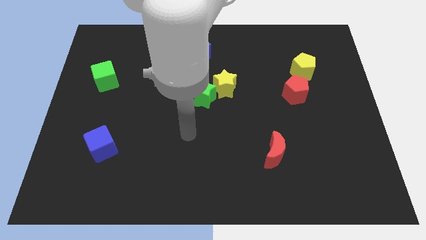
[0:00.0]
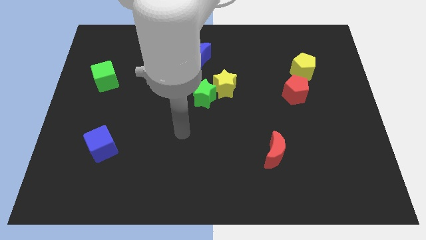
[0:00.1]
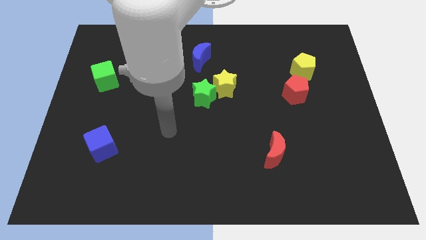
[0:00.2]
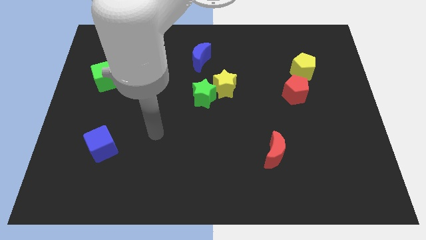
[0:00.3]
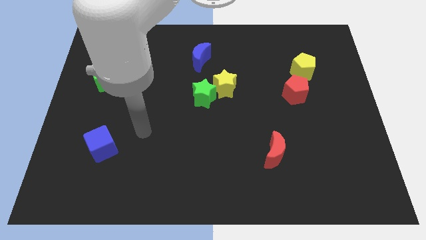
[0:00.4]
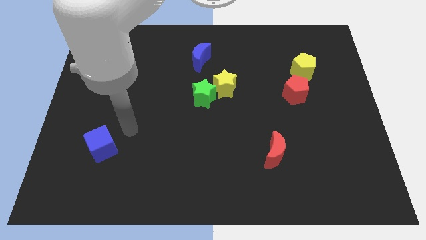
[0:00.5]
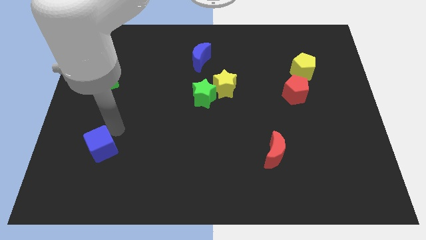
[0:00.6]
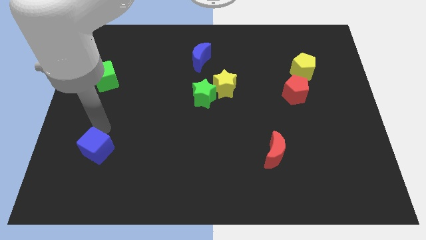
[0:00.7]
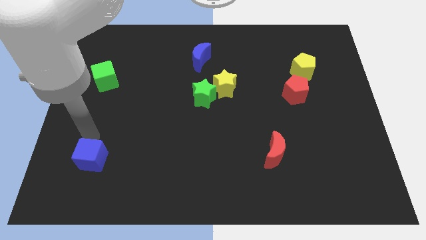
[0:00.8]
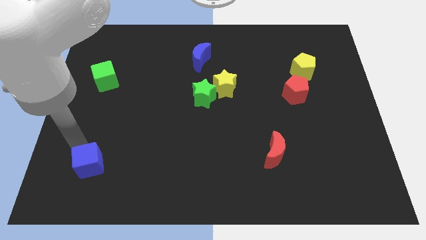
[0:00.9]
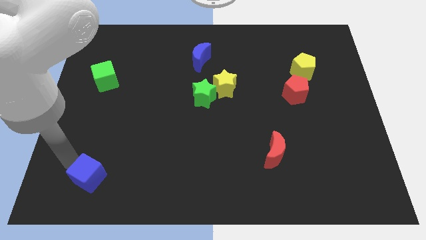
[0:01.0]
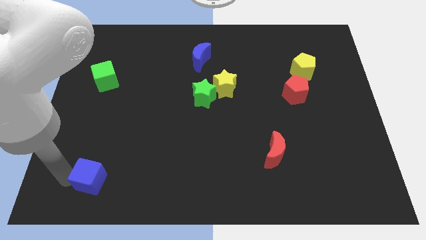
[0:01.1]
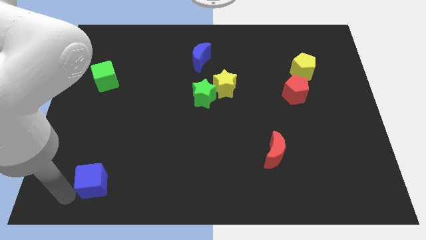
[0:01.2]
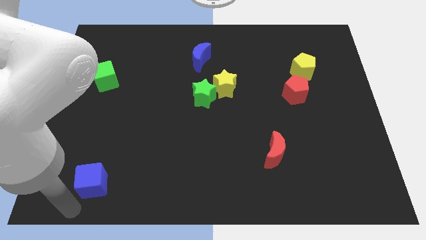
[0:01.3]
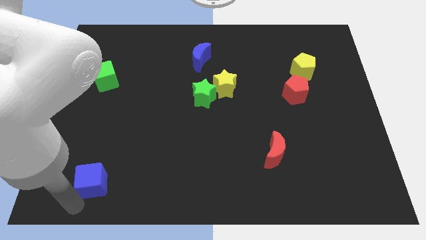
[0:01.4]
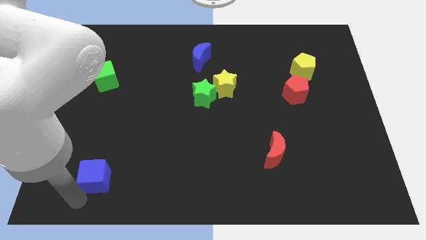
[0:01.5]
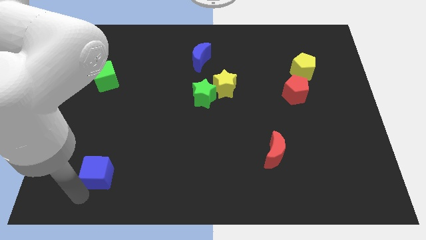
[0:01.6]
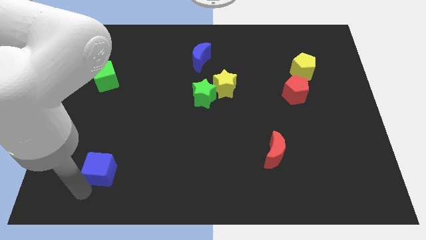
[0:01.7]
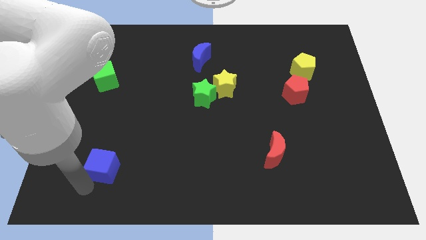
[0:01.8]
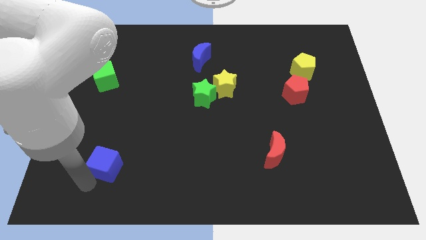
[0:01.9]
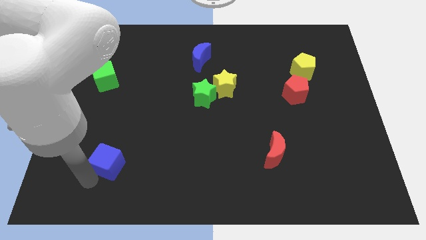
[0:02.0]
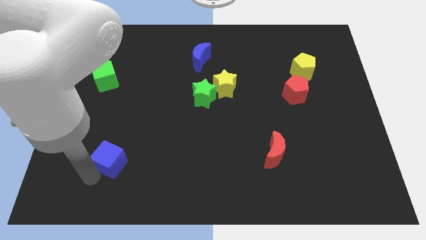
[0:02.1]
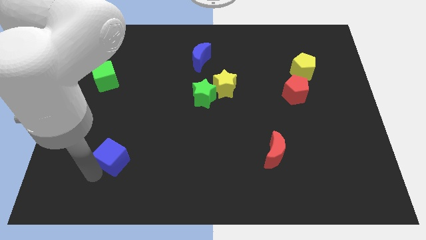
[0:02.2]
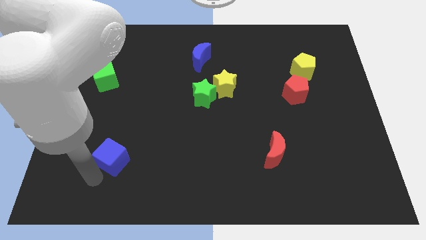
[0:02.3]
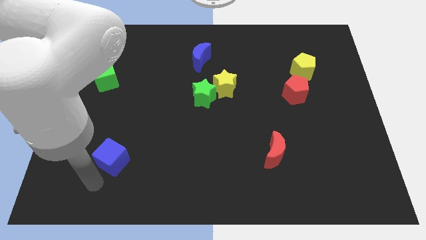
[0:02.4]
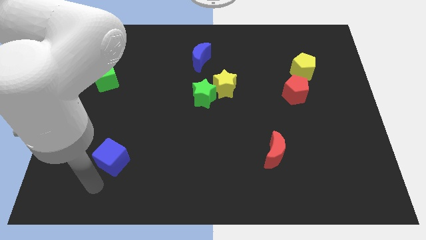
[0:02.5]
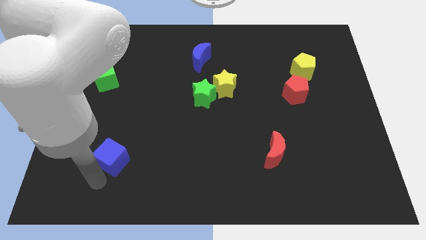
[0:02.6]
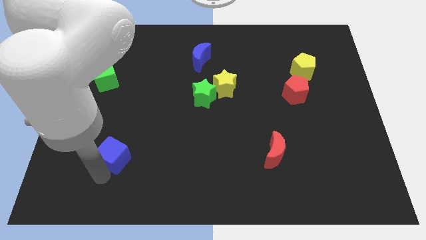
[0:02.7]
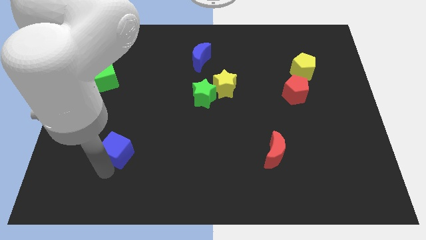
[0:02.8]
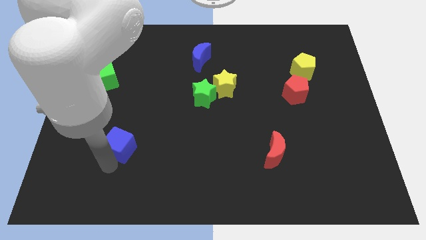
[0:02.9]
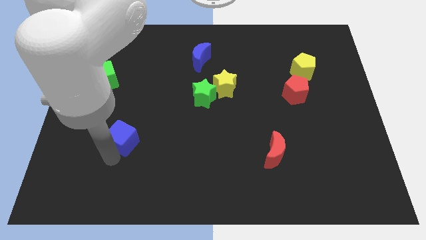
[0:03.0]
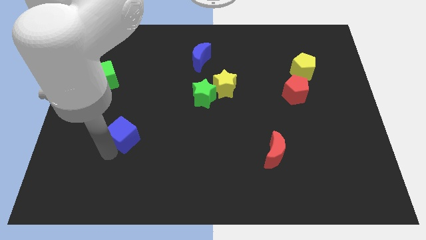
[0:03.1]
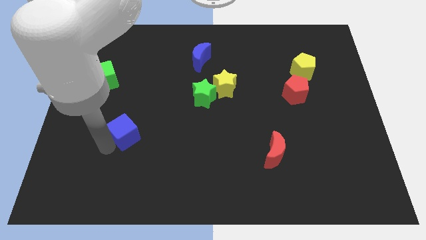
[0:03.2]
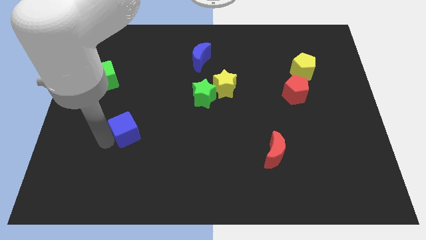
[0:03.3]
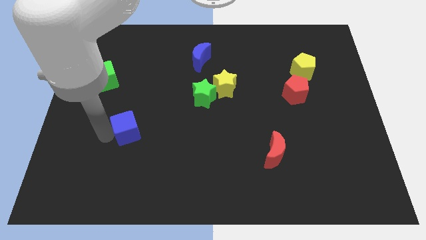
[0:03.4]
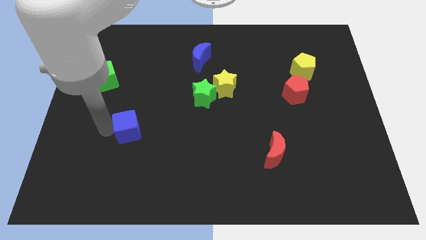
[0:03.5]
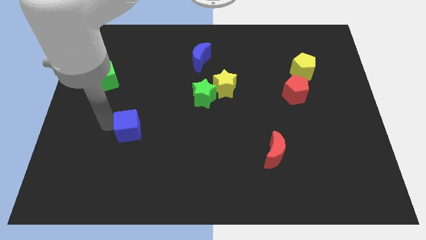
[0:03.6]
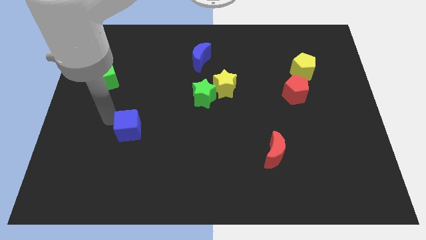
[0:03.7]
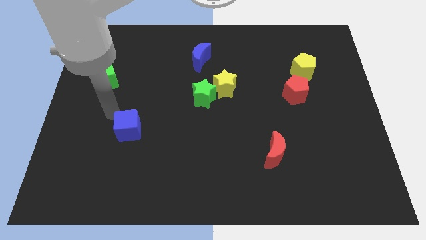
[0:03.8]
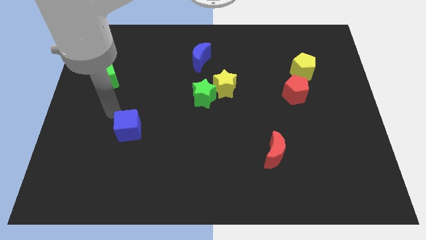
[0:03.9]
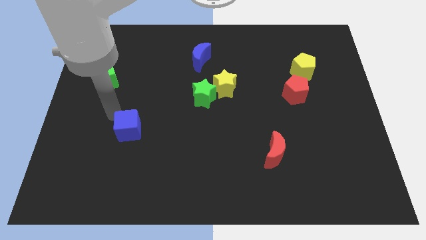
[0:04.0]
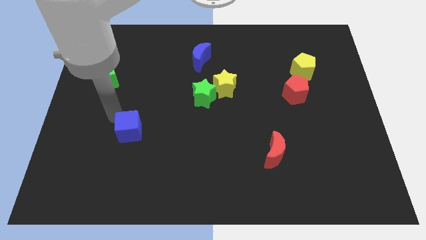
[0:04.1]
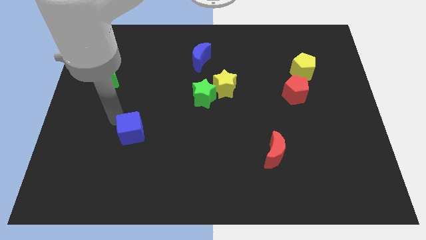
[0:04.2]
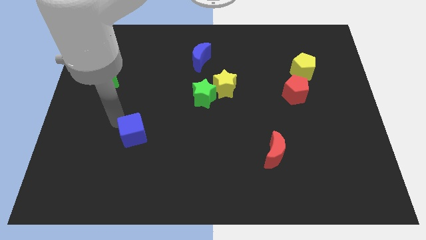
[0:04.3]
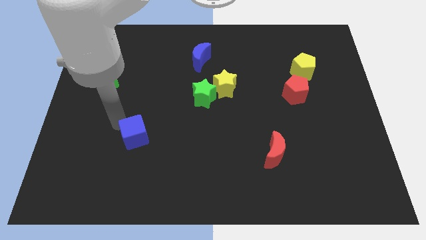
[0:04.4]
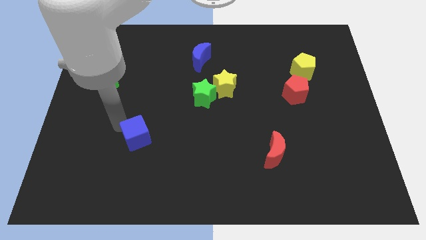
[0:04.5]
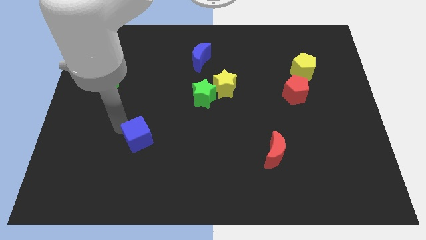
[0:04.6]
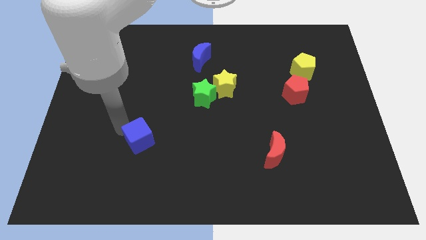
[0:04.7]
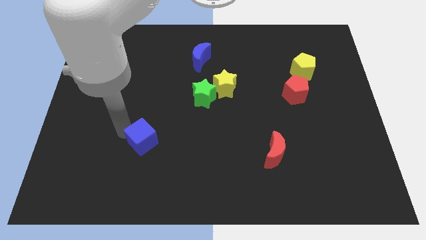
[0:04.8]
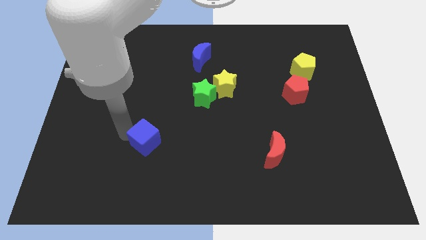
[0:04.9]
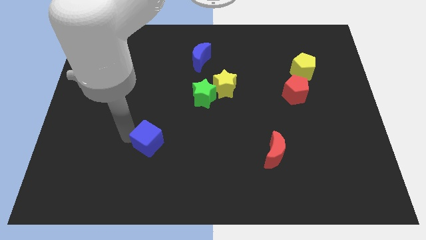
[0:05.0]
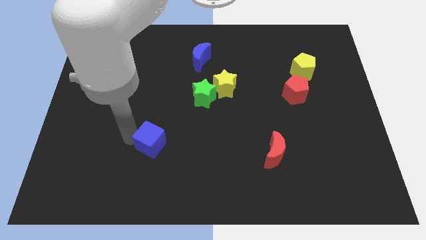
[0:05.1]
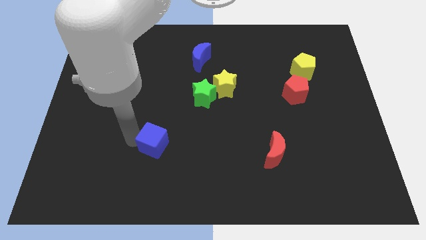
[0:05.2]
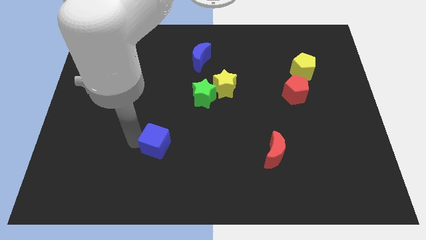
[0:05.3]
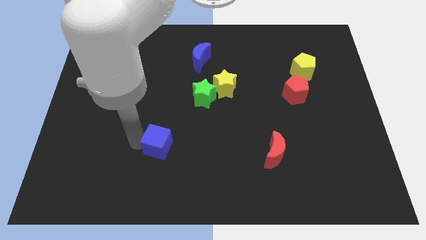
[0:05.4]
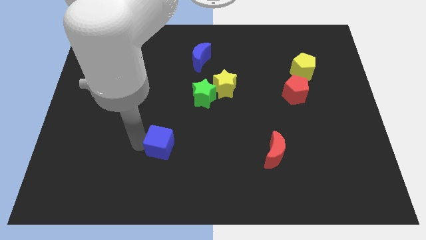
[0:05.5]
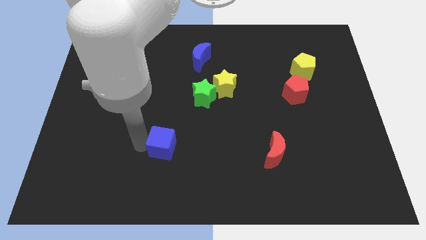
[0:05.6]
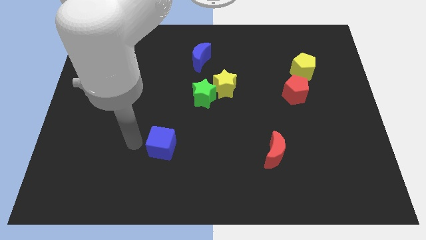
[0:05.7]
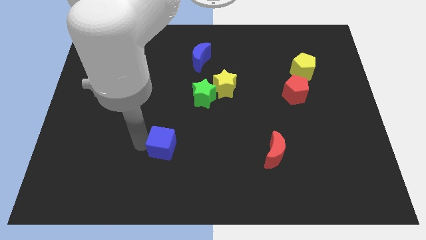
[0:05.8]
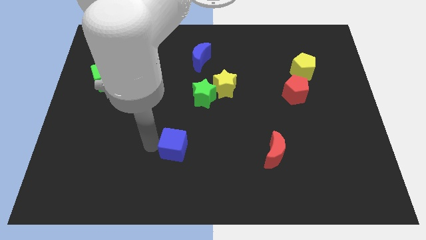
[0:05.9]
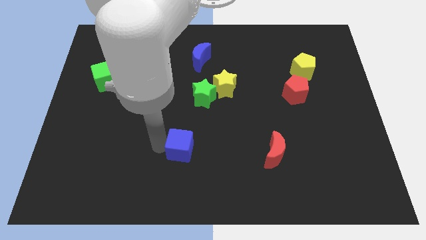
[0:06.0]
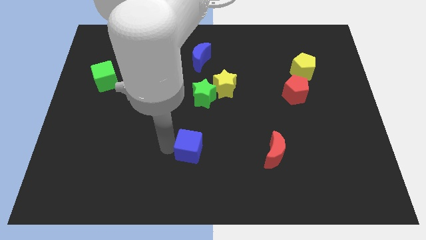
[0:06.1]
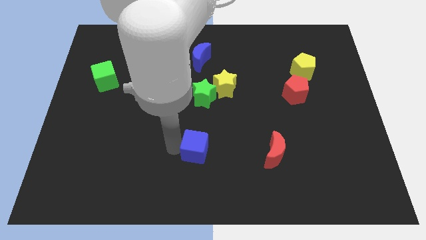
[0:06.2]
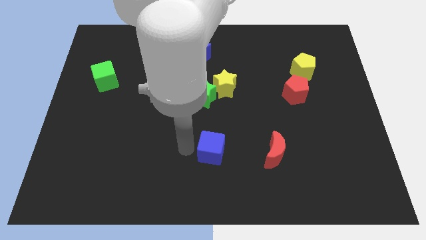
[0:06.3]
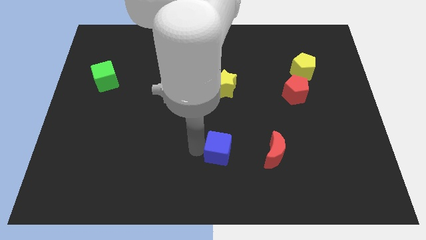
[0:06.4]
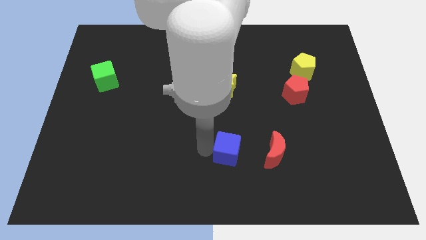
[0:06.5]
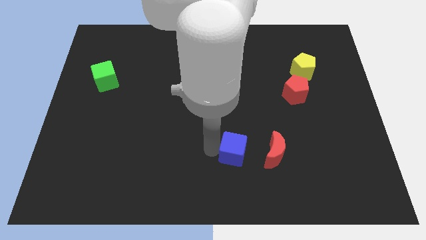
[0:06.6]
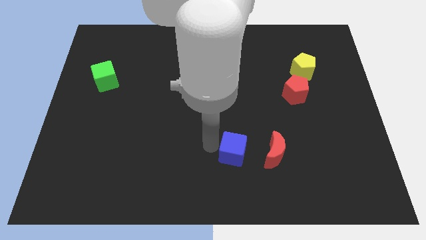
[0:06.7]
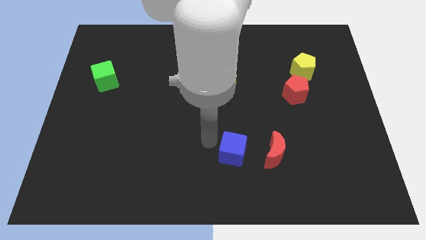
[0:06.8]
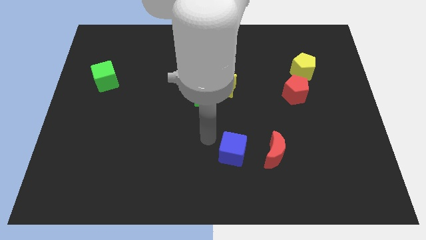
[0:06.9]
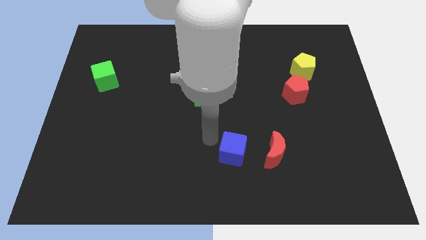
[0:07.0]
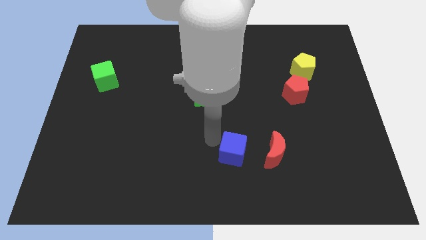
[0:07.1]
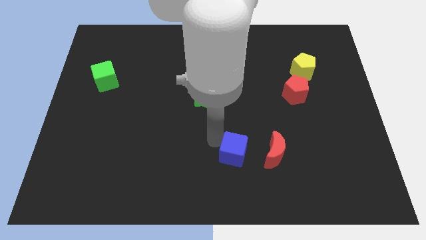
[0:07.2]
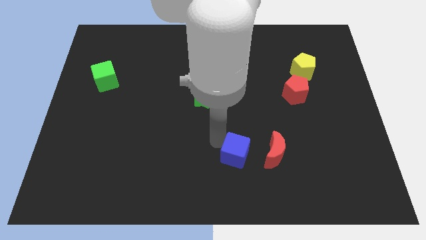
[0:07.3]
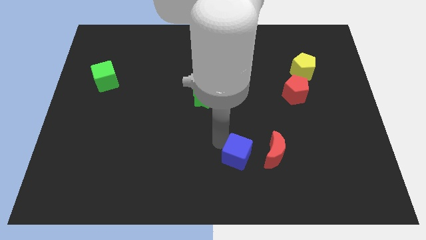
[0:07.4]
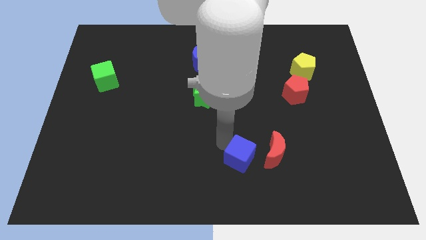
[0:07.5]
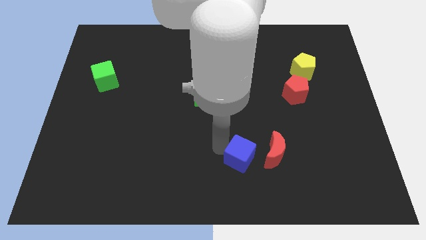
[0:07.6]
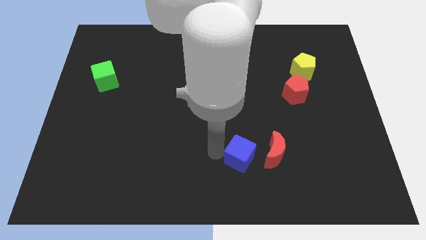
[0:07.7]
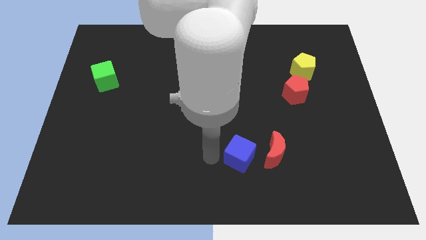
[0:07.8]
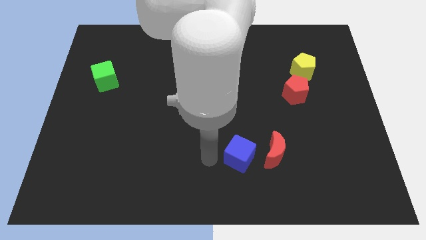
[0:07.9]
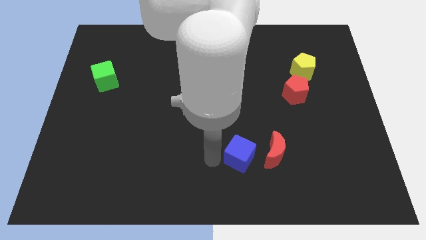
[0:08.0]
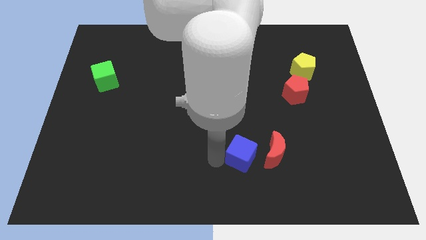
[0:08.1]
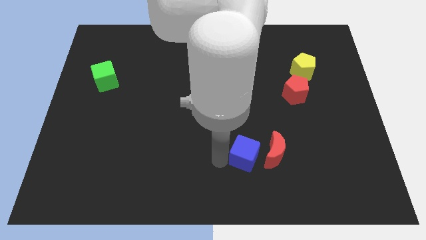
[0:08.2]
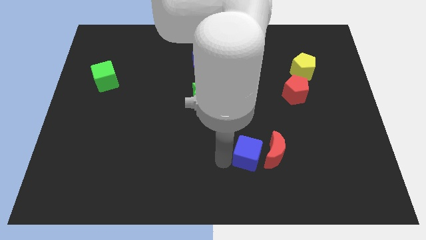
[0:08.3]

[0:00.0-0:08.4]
push the blue cube close to the red moon
